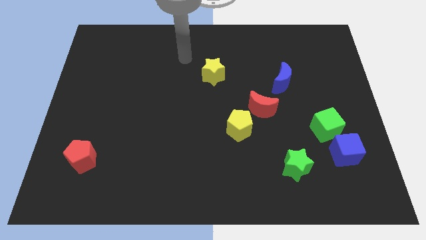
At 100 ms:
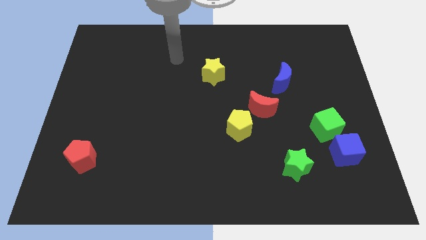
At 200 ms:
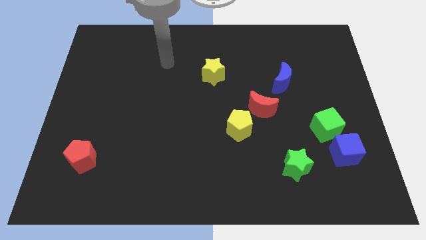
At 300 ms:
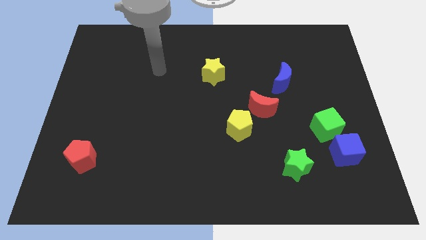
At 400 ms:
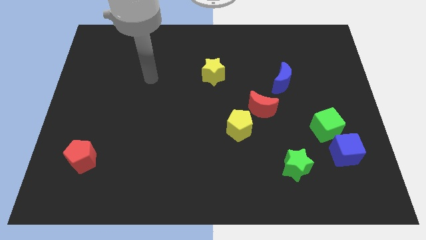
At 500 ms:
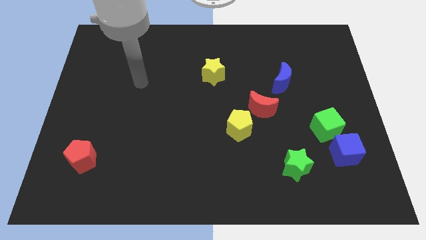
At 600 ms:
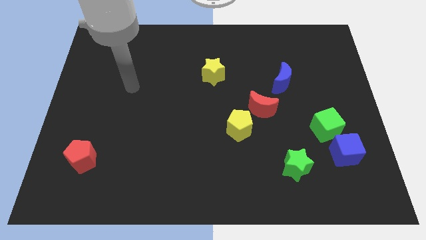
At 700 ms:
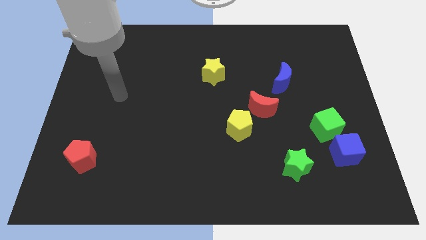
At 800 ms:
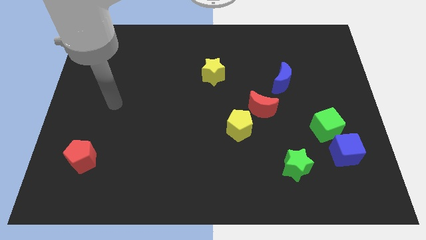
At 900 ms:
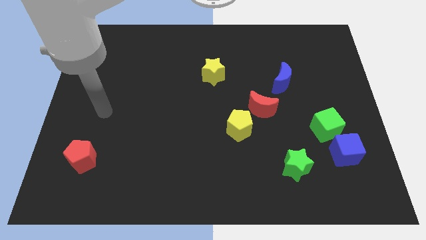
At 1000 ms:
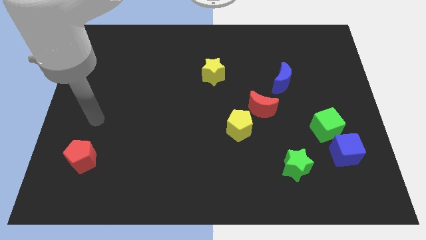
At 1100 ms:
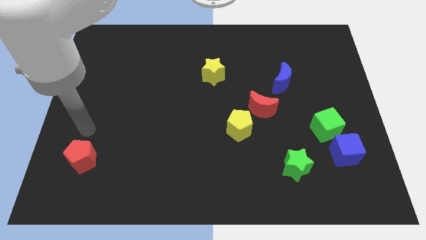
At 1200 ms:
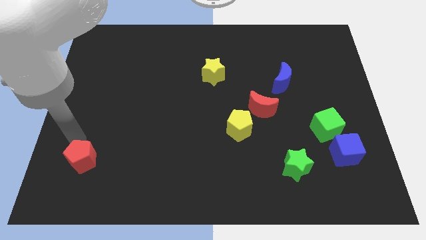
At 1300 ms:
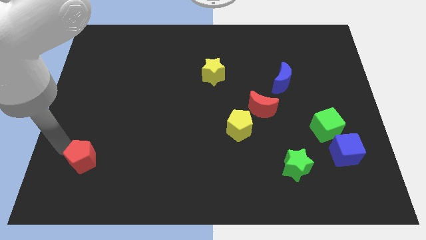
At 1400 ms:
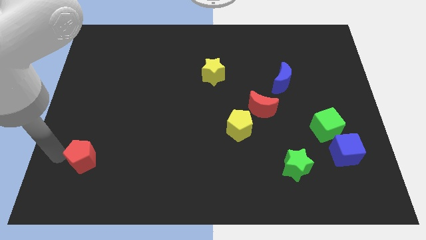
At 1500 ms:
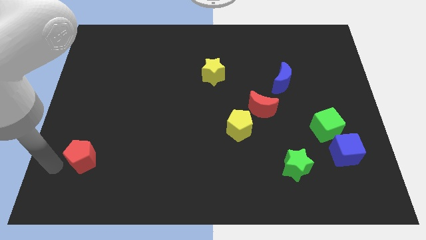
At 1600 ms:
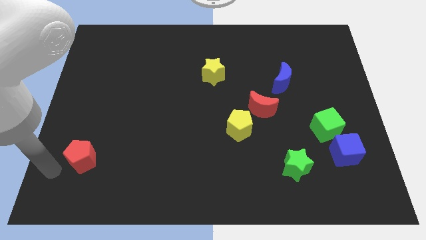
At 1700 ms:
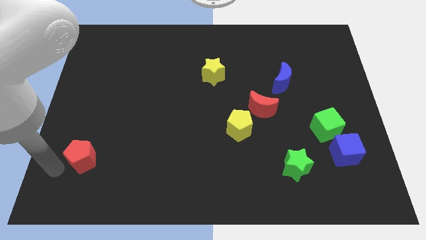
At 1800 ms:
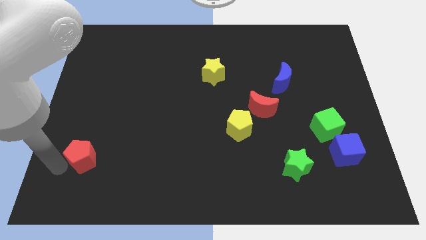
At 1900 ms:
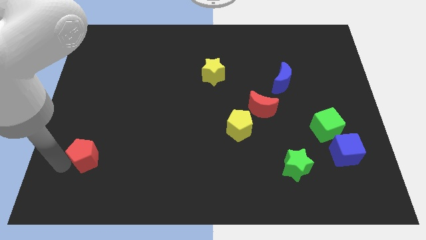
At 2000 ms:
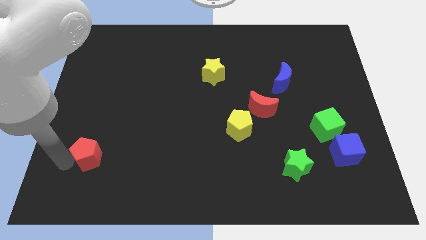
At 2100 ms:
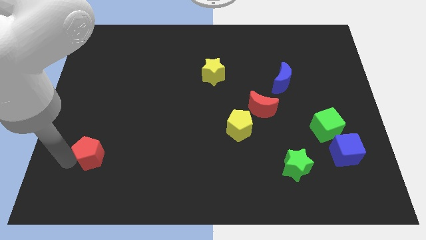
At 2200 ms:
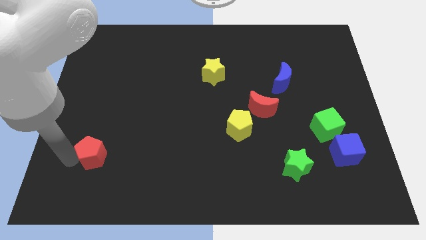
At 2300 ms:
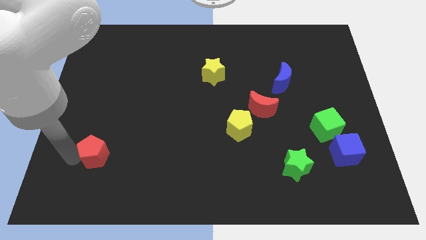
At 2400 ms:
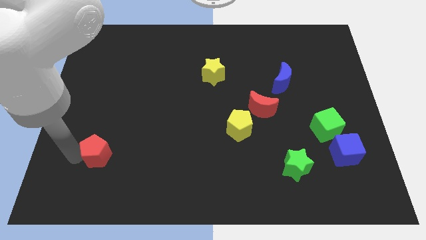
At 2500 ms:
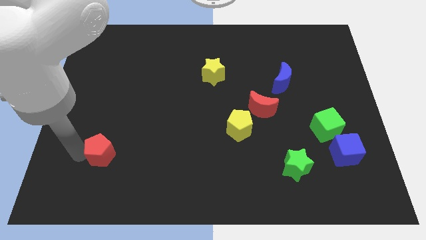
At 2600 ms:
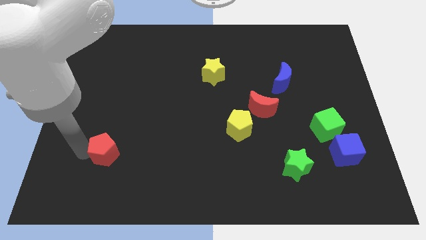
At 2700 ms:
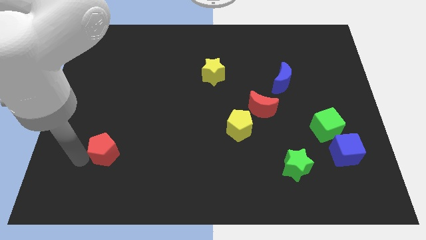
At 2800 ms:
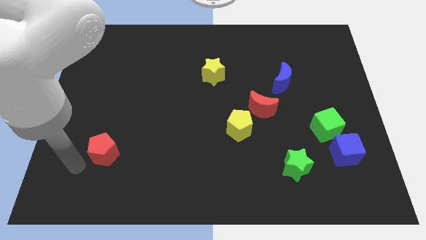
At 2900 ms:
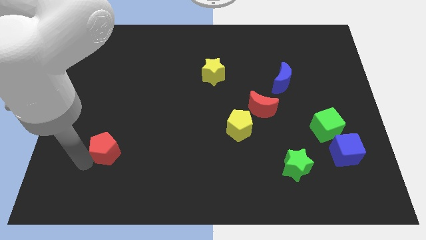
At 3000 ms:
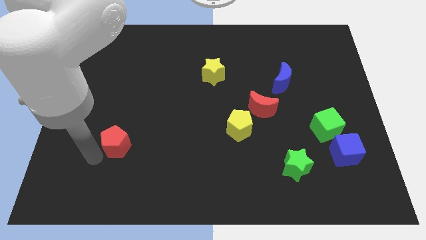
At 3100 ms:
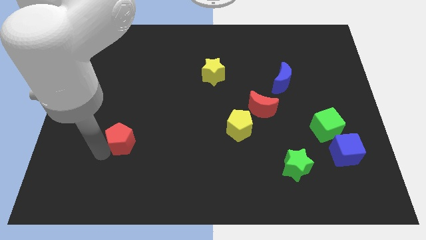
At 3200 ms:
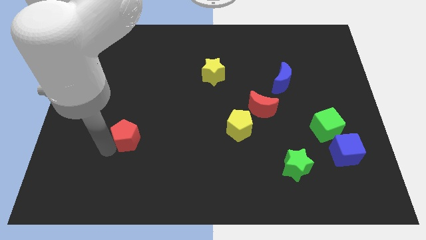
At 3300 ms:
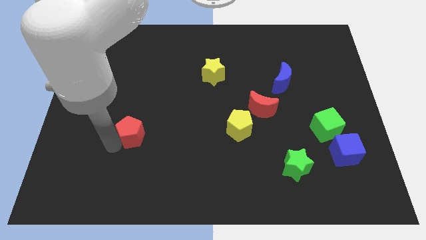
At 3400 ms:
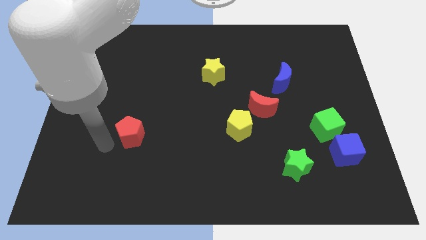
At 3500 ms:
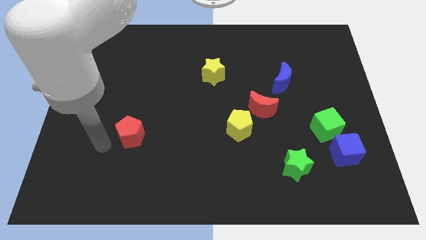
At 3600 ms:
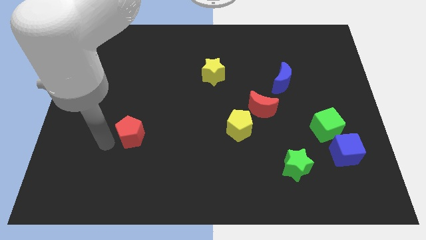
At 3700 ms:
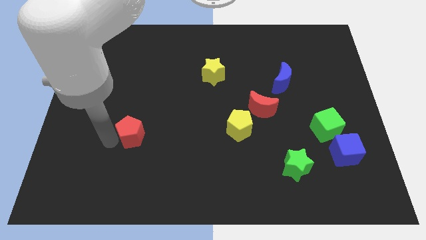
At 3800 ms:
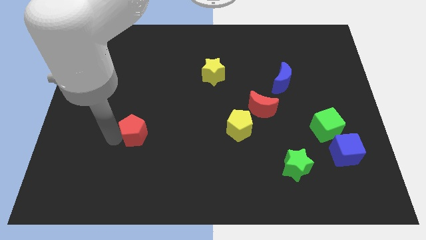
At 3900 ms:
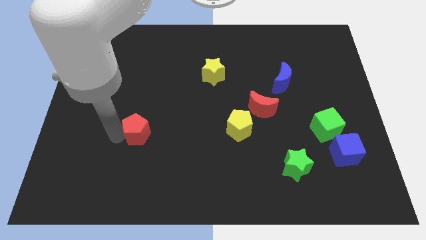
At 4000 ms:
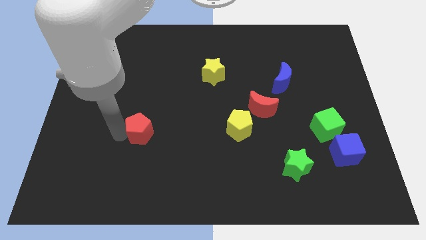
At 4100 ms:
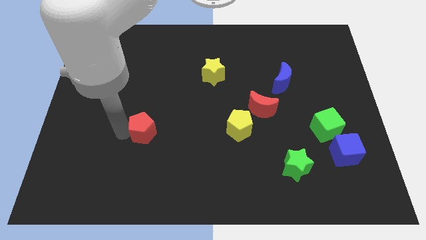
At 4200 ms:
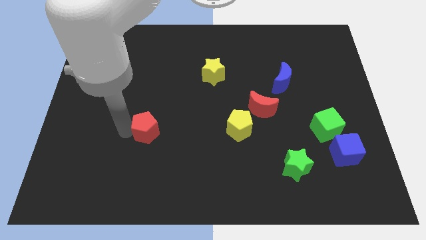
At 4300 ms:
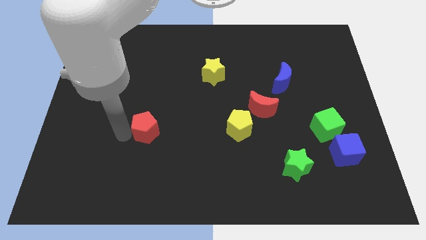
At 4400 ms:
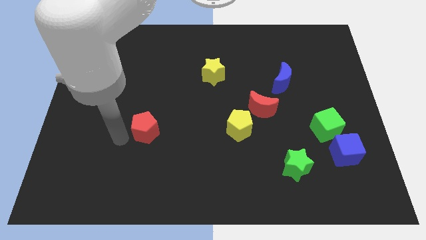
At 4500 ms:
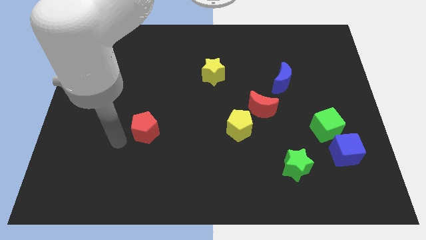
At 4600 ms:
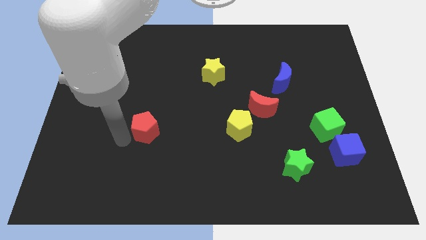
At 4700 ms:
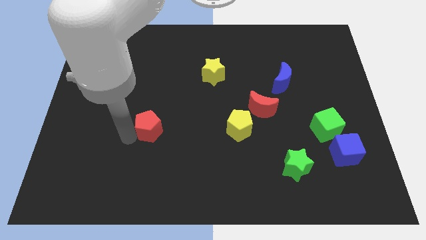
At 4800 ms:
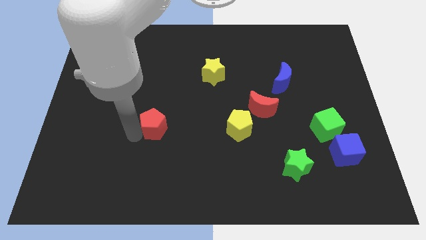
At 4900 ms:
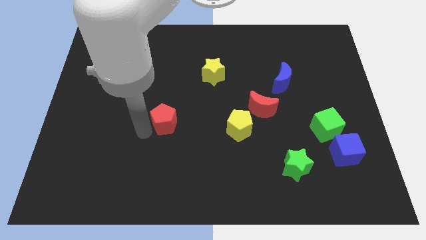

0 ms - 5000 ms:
put the red pentagon to the middle of the board

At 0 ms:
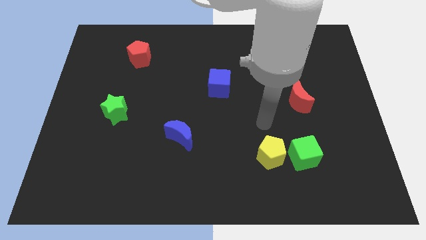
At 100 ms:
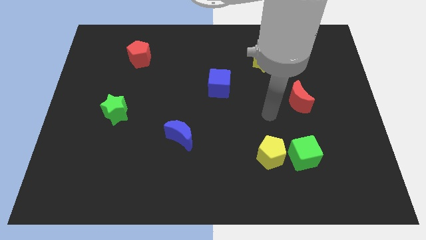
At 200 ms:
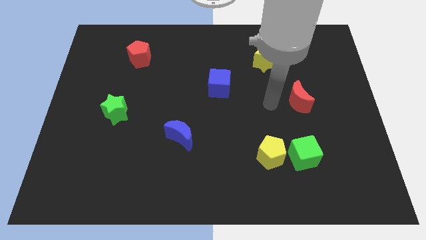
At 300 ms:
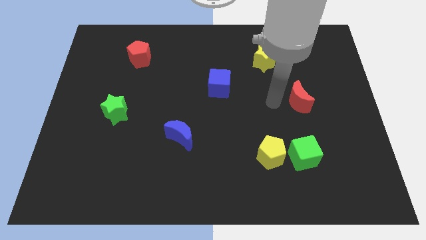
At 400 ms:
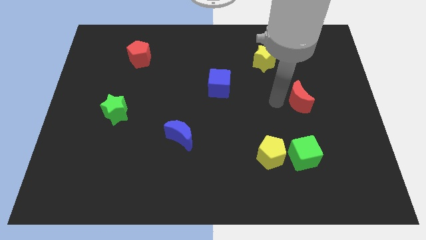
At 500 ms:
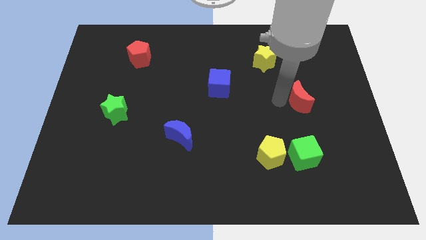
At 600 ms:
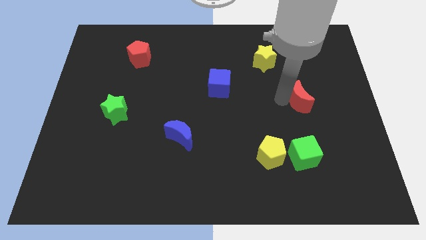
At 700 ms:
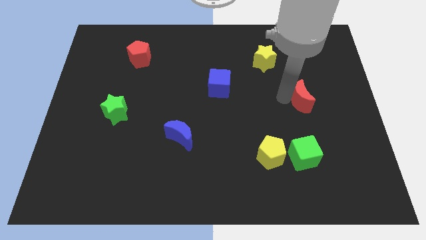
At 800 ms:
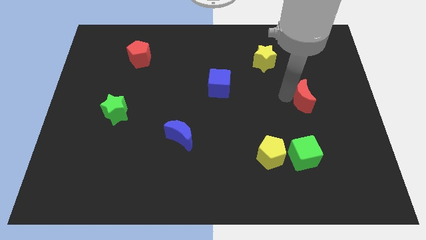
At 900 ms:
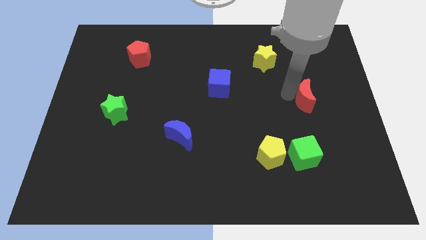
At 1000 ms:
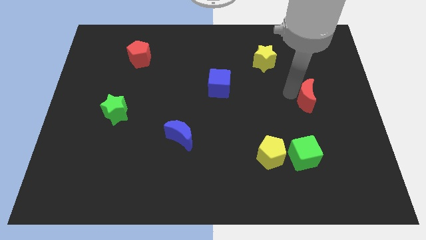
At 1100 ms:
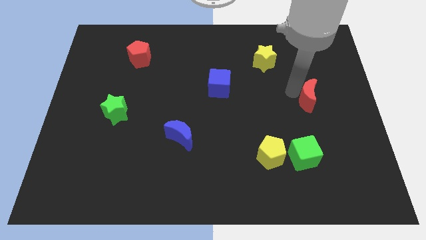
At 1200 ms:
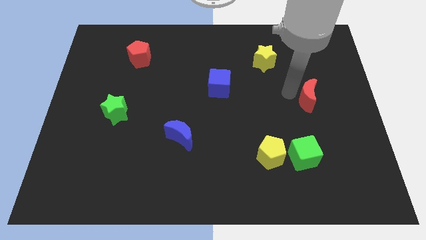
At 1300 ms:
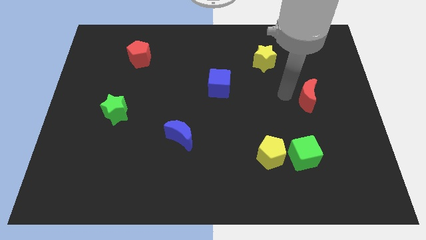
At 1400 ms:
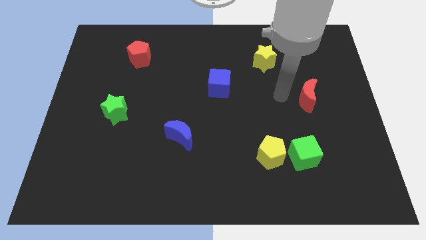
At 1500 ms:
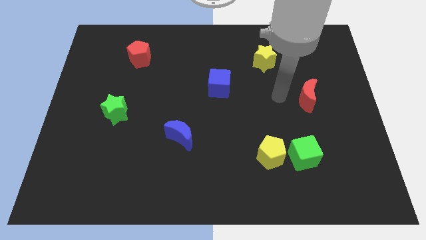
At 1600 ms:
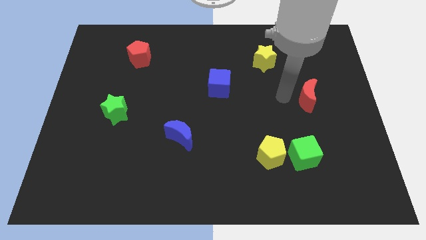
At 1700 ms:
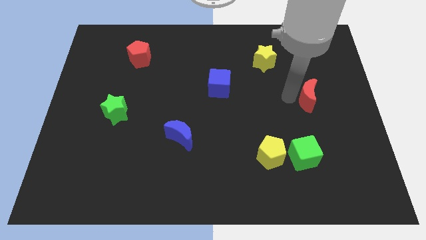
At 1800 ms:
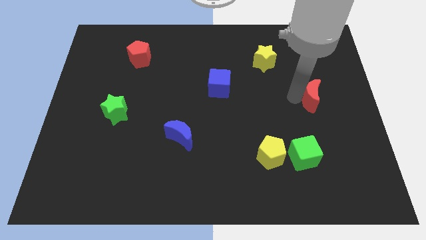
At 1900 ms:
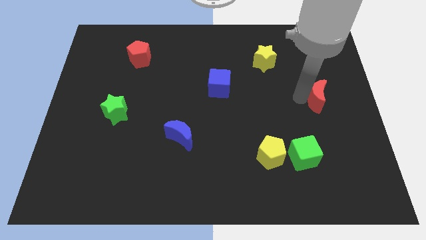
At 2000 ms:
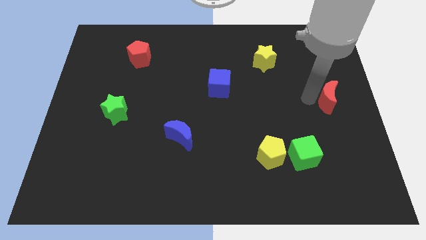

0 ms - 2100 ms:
slide the red moon to the center right

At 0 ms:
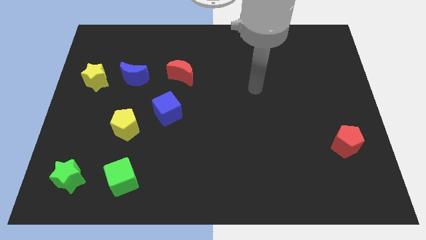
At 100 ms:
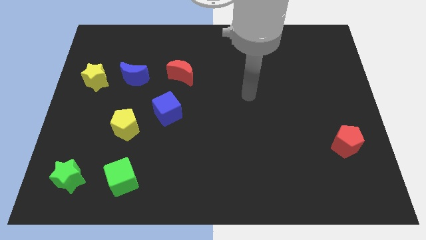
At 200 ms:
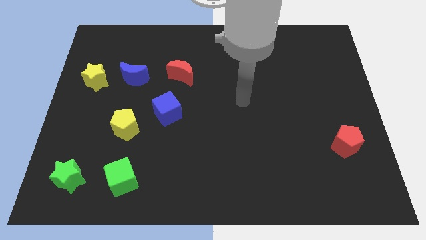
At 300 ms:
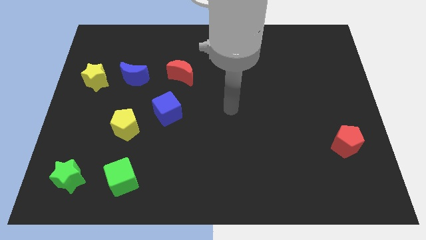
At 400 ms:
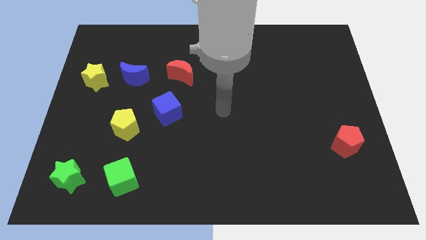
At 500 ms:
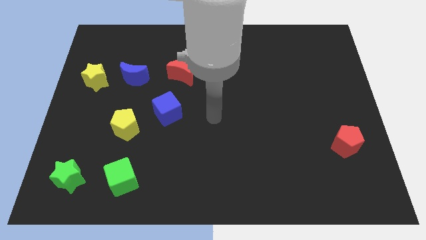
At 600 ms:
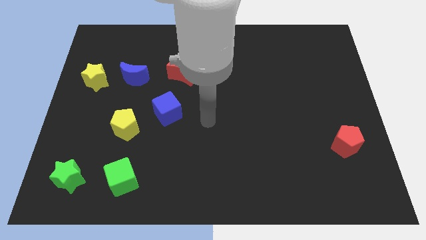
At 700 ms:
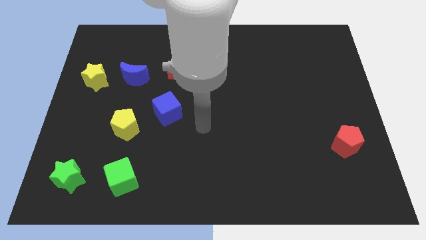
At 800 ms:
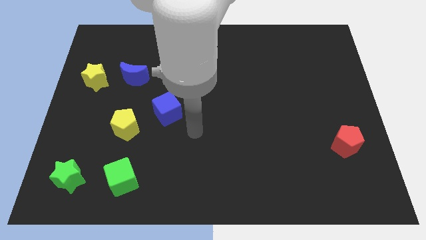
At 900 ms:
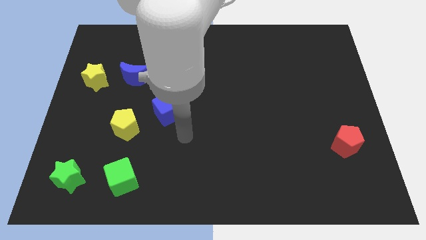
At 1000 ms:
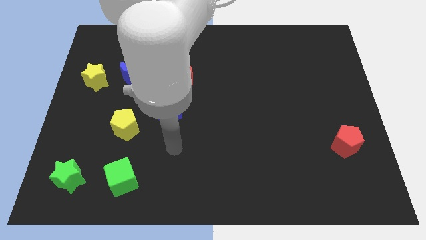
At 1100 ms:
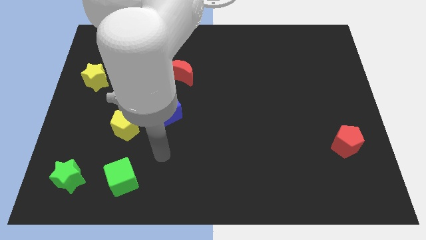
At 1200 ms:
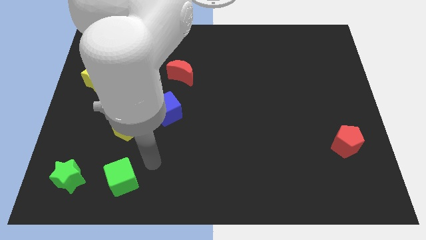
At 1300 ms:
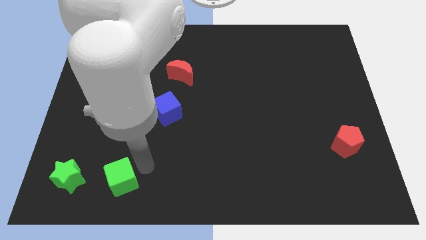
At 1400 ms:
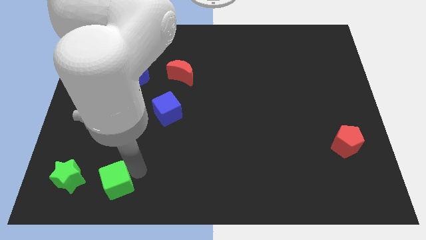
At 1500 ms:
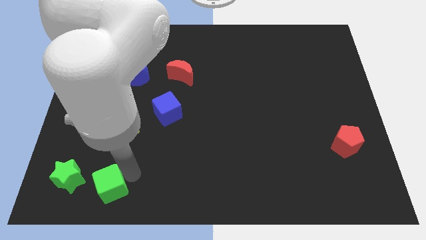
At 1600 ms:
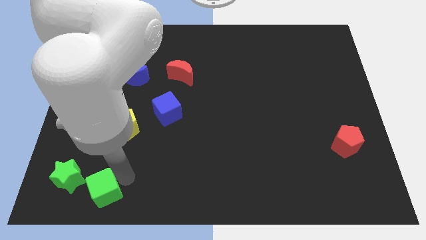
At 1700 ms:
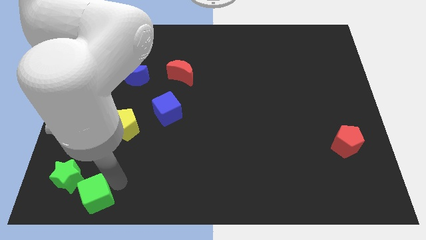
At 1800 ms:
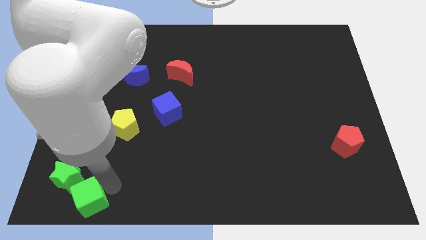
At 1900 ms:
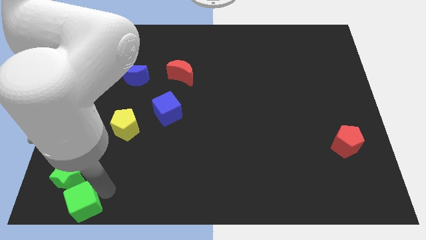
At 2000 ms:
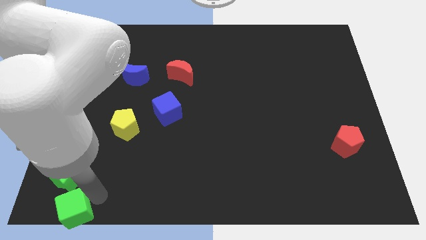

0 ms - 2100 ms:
push the green cube to the bottom left corner
